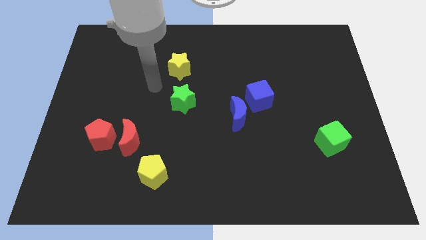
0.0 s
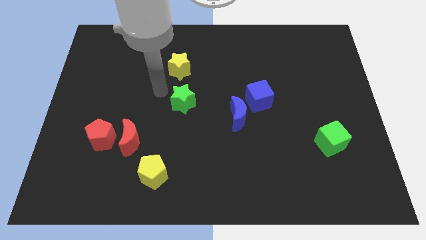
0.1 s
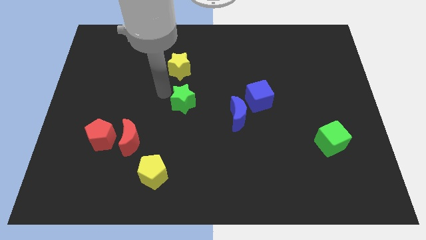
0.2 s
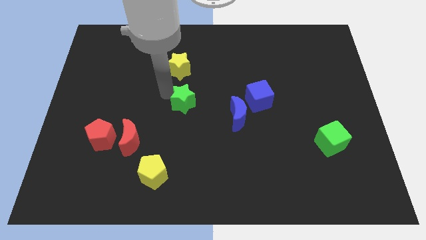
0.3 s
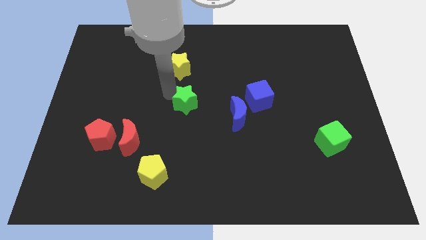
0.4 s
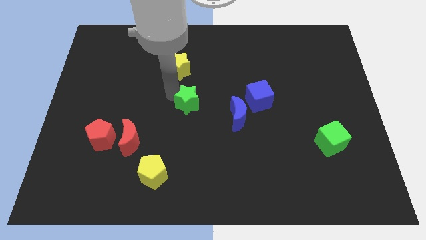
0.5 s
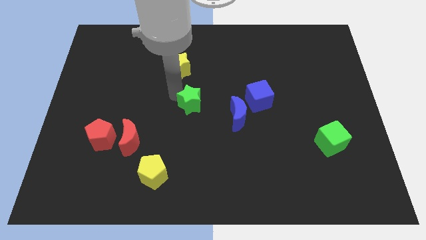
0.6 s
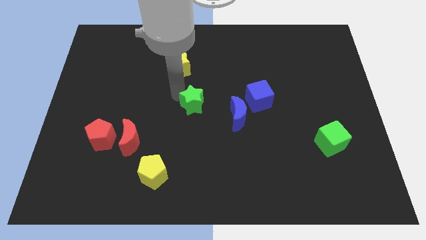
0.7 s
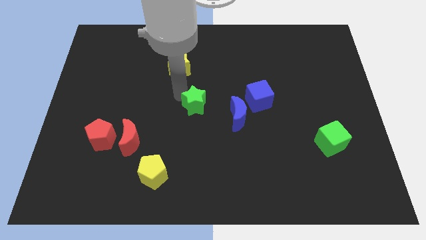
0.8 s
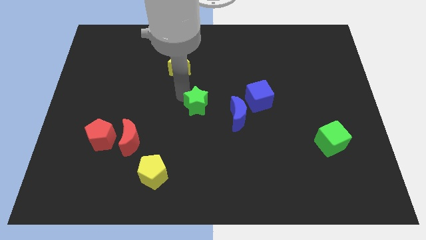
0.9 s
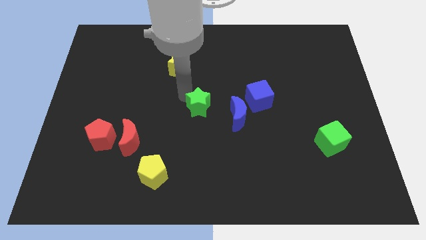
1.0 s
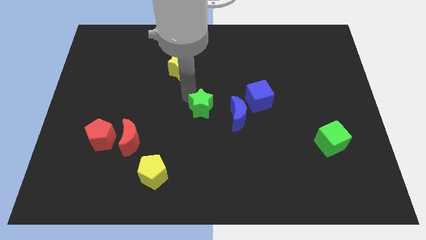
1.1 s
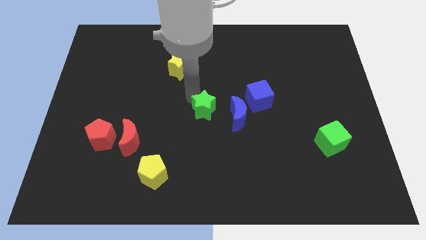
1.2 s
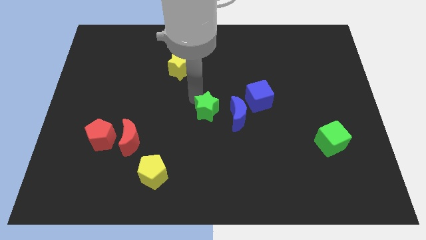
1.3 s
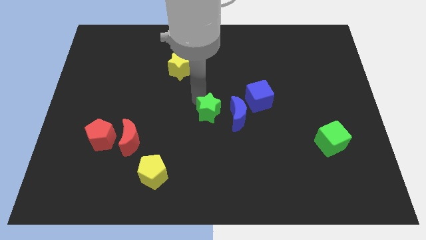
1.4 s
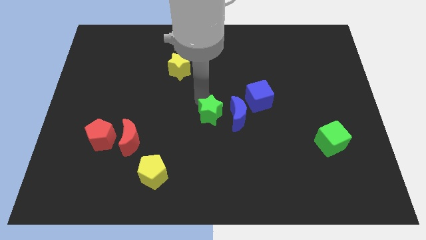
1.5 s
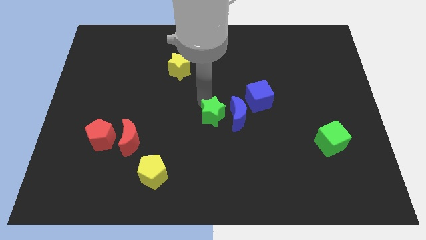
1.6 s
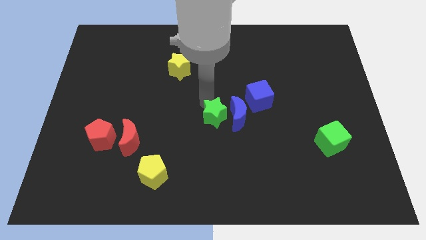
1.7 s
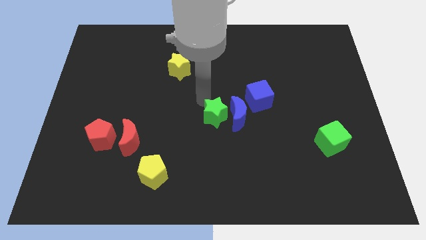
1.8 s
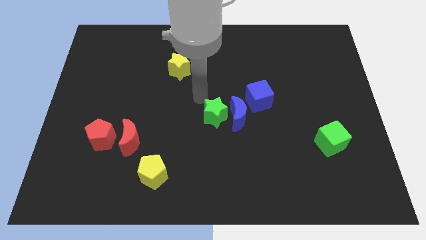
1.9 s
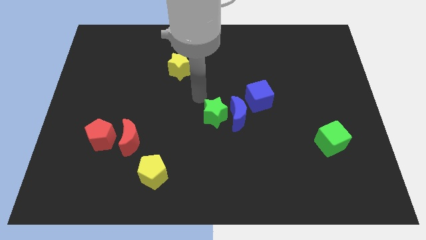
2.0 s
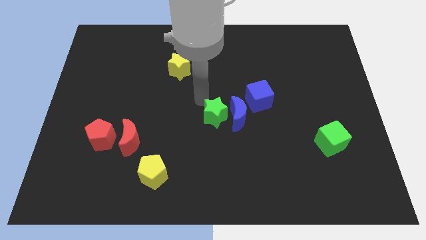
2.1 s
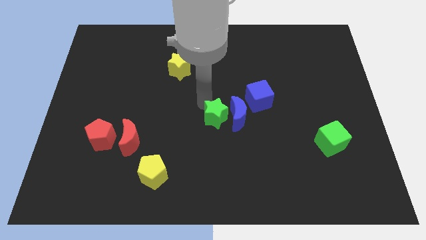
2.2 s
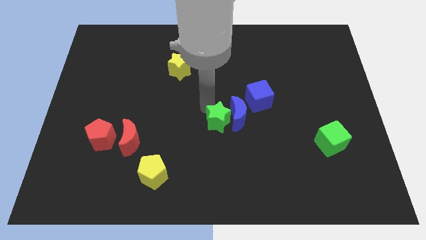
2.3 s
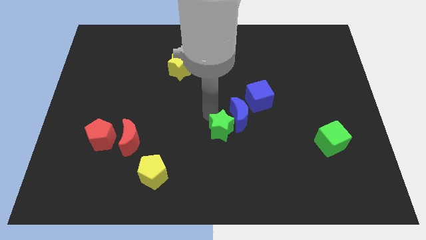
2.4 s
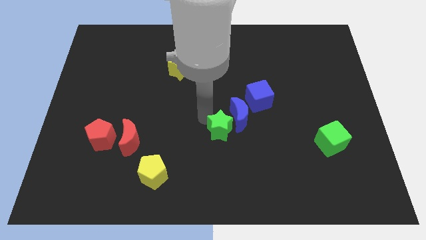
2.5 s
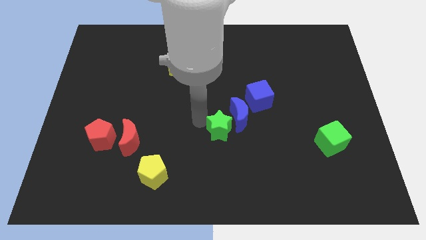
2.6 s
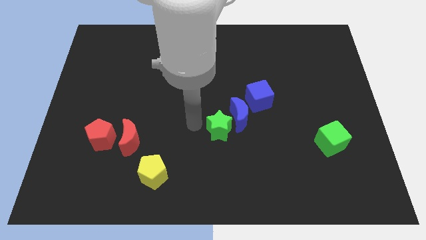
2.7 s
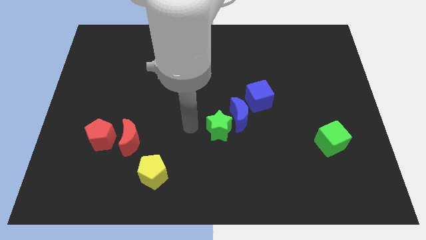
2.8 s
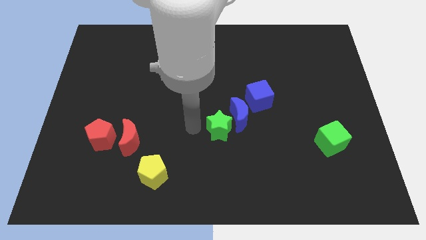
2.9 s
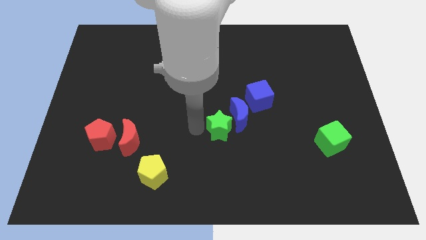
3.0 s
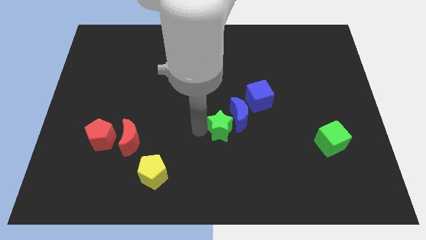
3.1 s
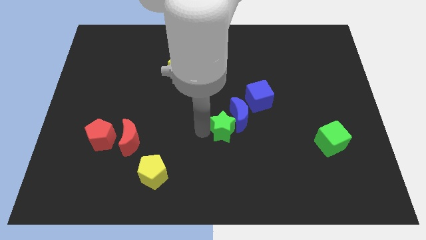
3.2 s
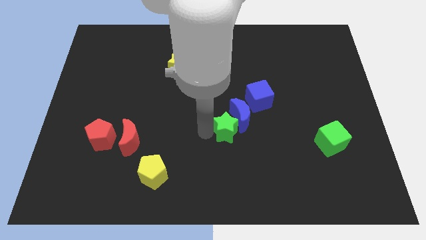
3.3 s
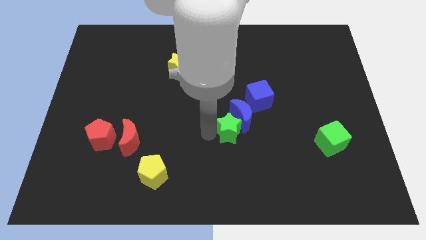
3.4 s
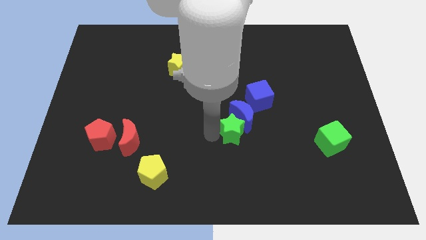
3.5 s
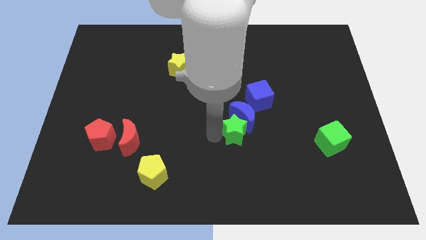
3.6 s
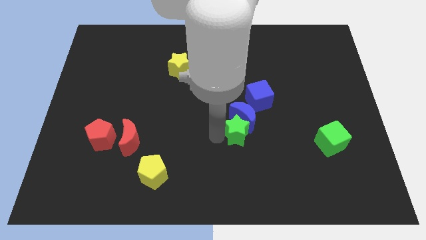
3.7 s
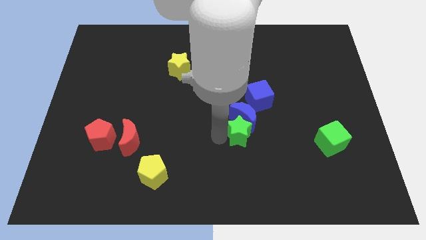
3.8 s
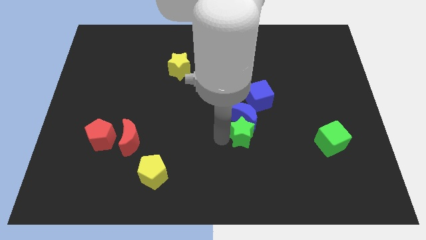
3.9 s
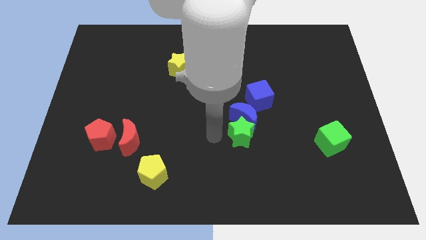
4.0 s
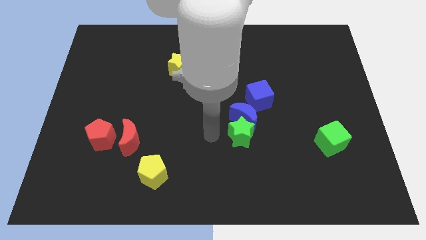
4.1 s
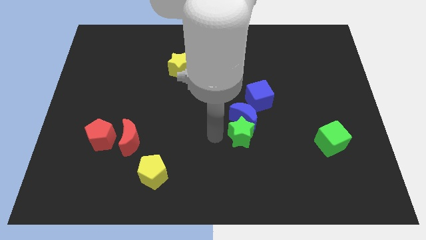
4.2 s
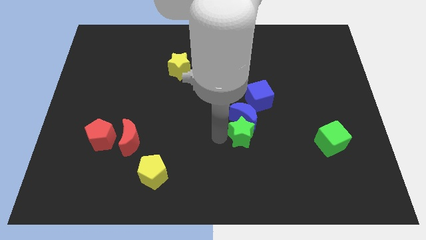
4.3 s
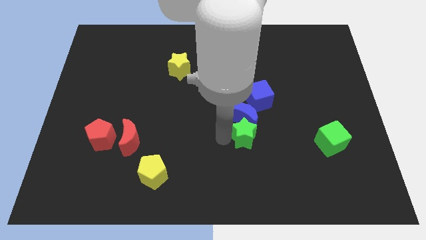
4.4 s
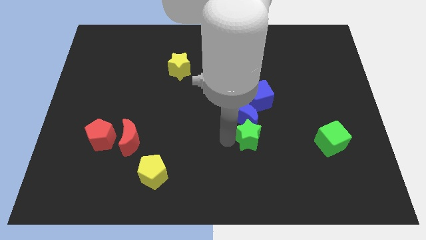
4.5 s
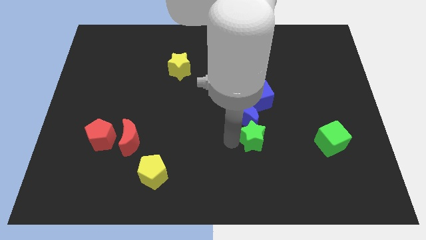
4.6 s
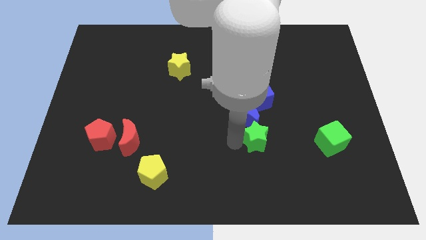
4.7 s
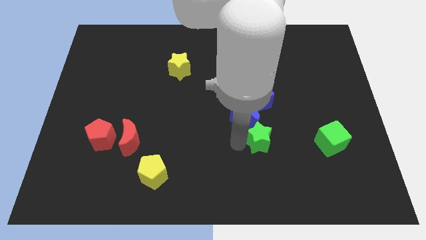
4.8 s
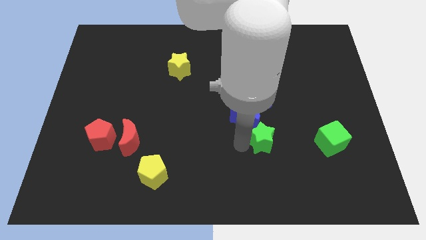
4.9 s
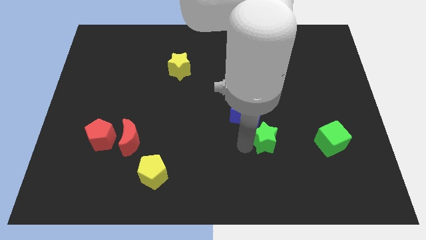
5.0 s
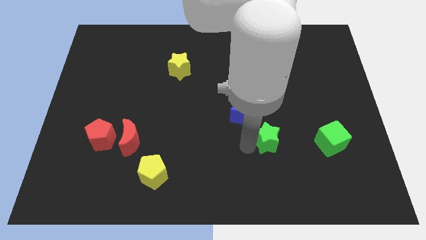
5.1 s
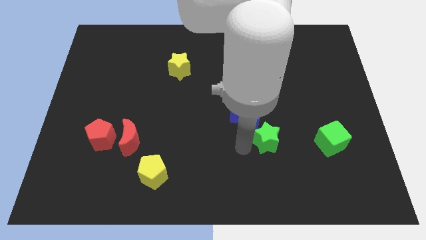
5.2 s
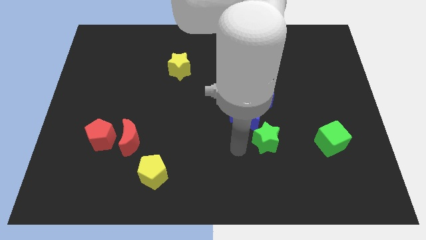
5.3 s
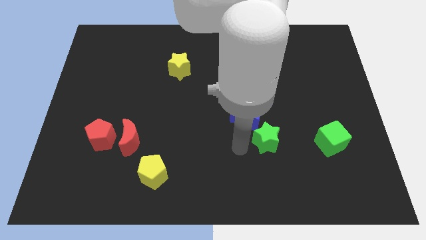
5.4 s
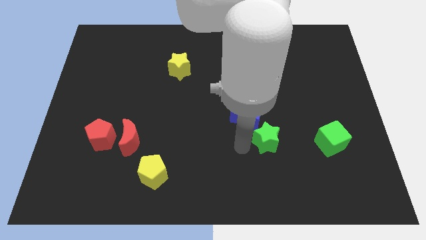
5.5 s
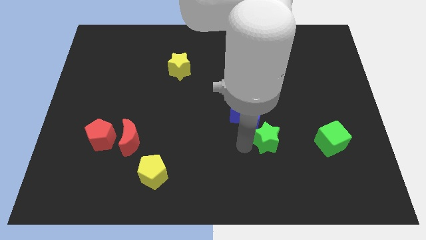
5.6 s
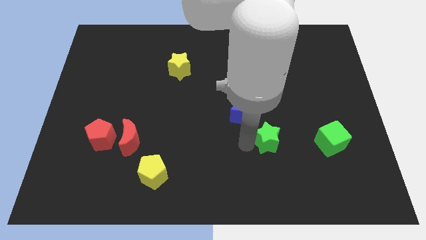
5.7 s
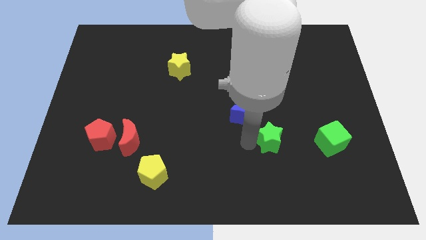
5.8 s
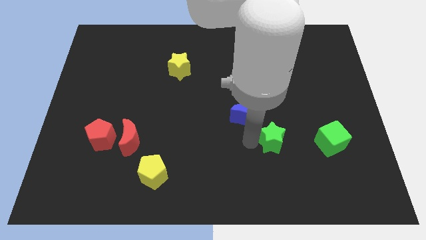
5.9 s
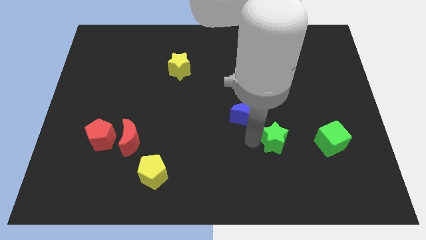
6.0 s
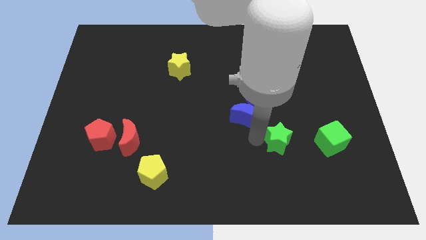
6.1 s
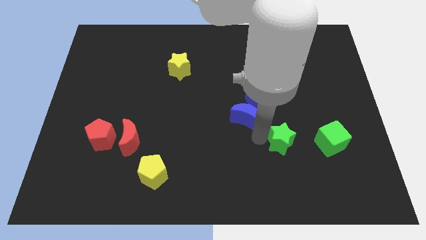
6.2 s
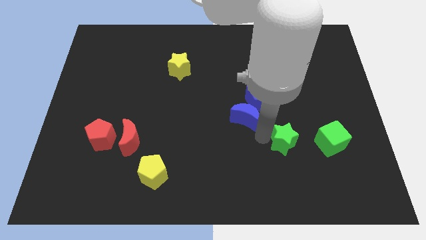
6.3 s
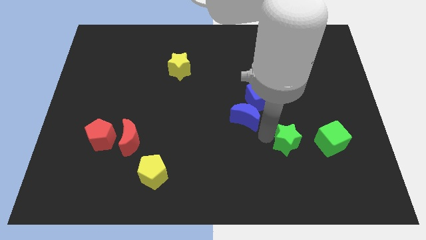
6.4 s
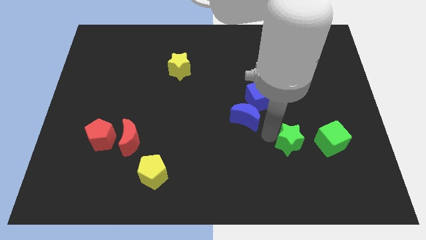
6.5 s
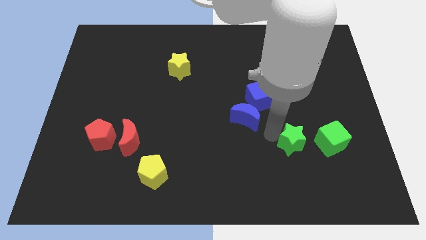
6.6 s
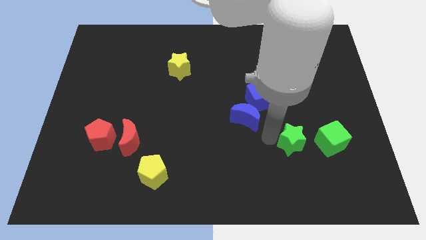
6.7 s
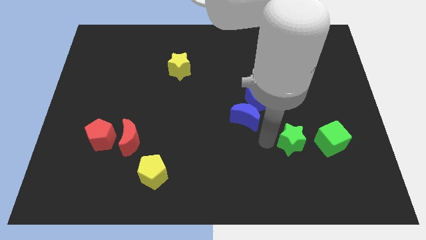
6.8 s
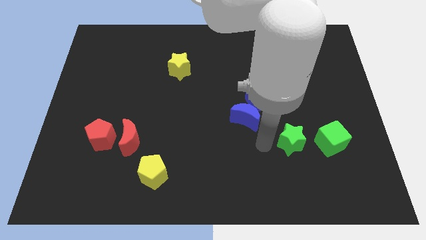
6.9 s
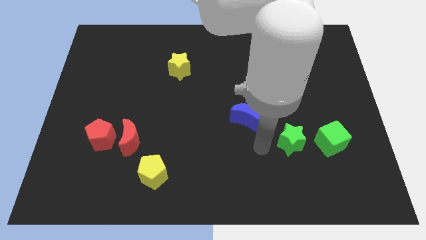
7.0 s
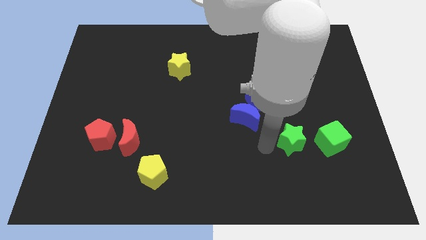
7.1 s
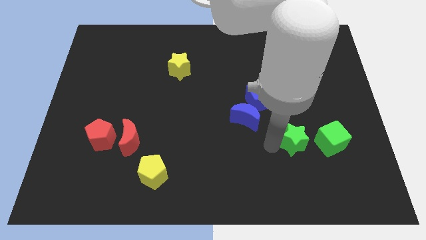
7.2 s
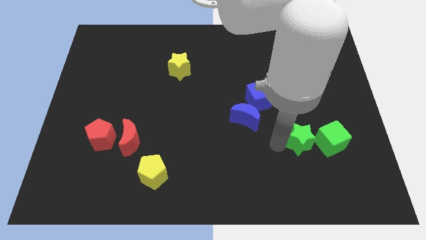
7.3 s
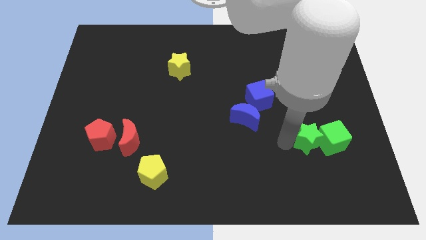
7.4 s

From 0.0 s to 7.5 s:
move the green star to the green cube
